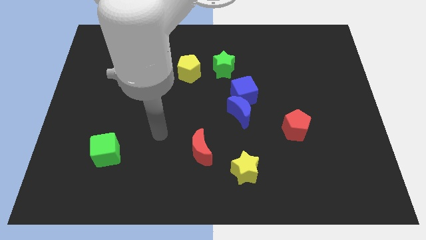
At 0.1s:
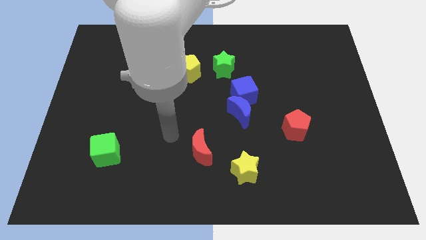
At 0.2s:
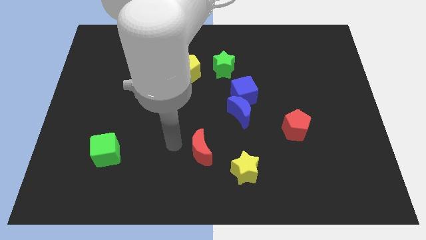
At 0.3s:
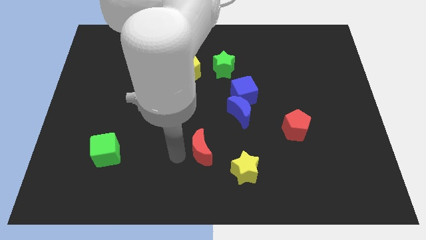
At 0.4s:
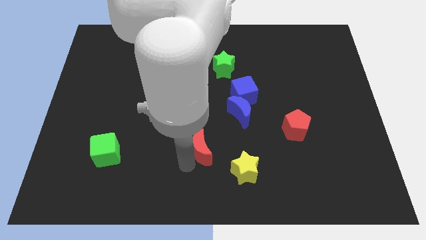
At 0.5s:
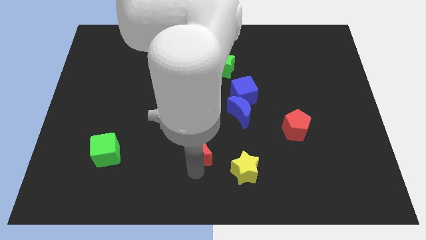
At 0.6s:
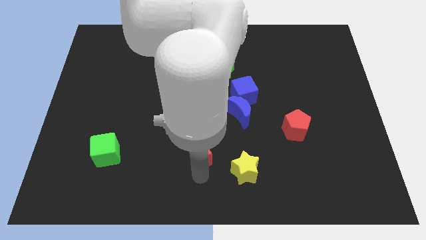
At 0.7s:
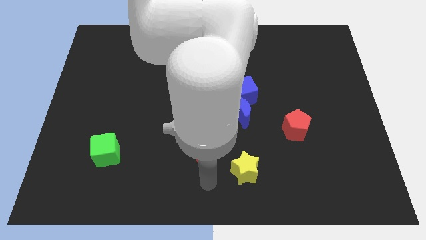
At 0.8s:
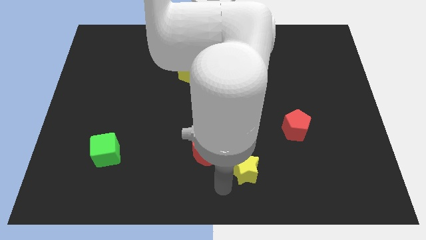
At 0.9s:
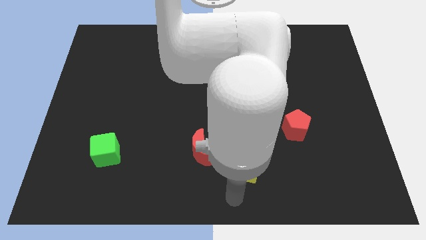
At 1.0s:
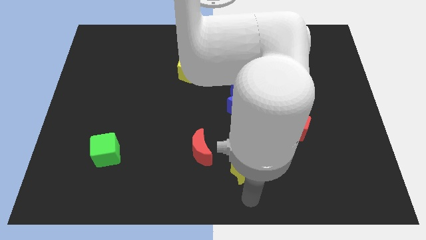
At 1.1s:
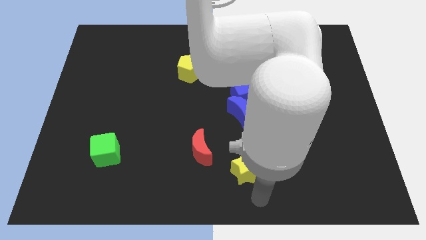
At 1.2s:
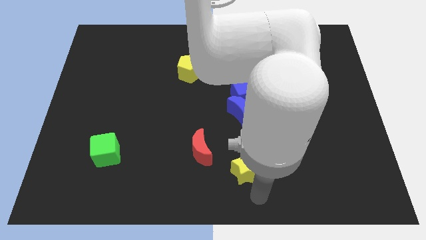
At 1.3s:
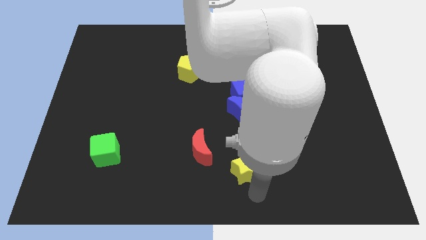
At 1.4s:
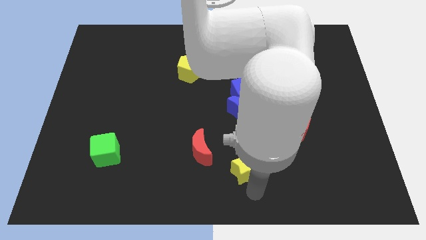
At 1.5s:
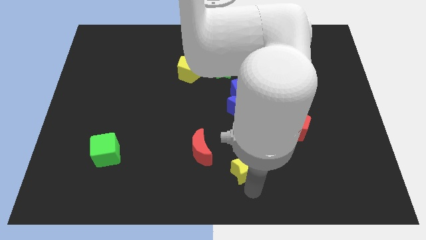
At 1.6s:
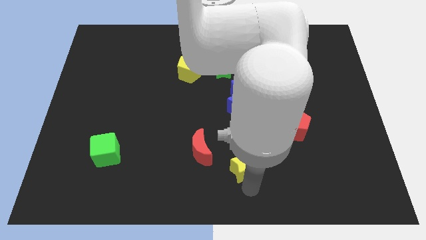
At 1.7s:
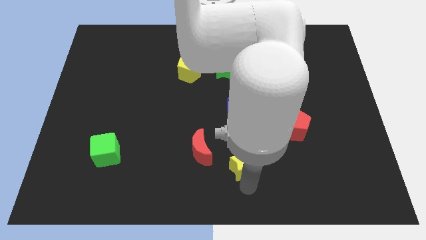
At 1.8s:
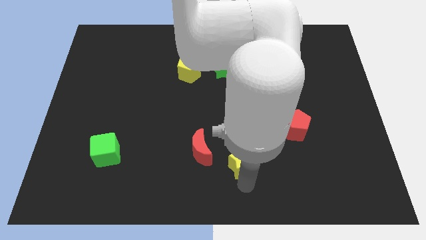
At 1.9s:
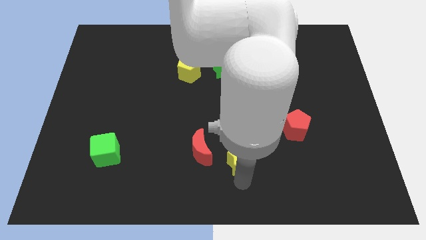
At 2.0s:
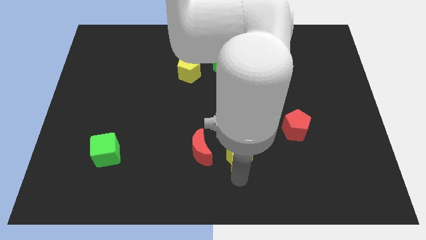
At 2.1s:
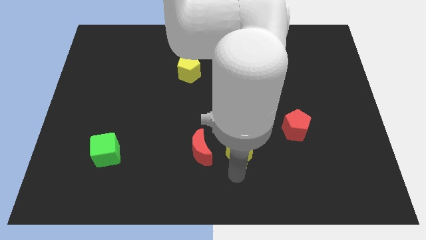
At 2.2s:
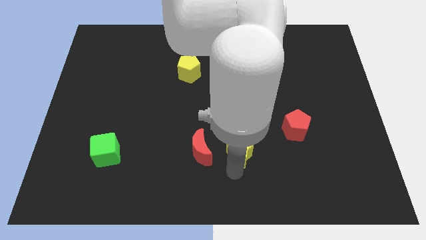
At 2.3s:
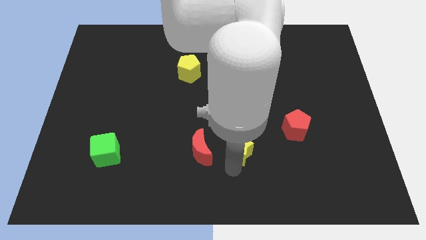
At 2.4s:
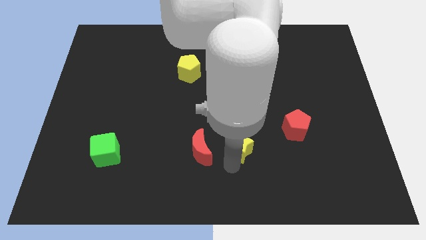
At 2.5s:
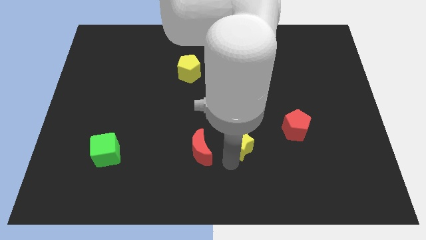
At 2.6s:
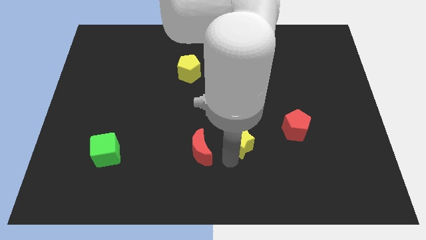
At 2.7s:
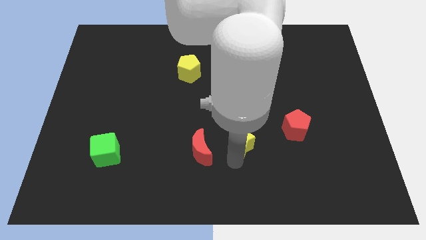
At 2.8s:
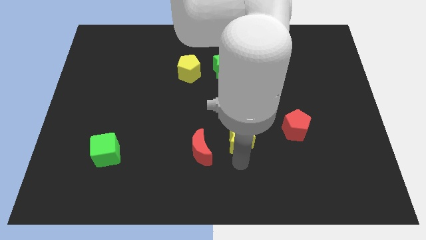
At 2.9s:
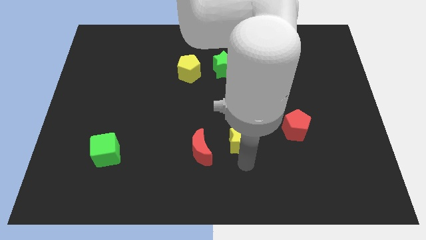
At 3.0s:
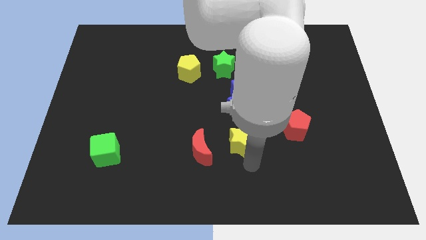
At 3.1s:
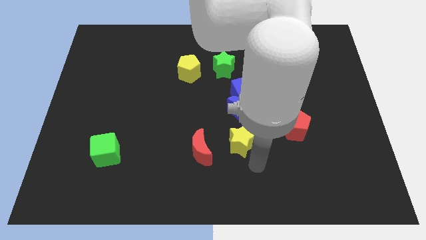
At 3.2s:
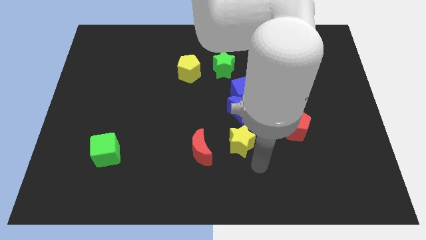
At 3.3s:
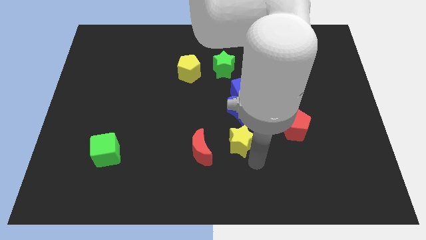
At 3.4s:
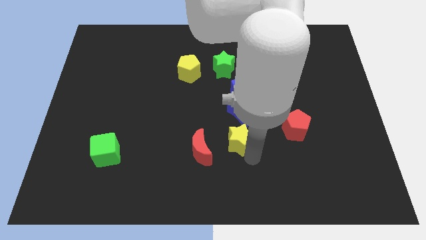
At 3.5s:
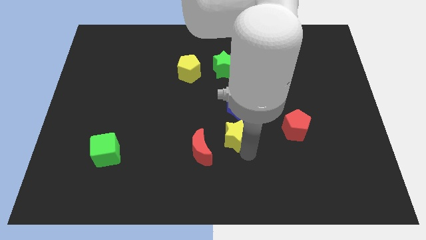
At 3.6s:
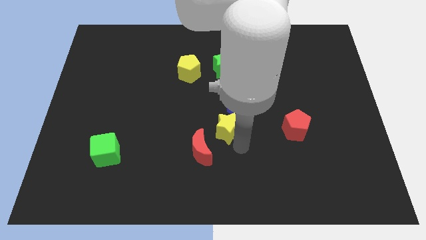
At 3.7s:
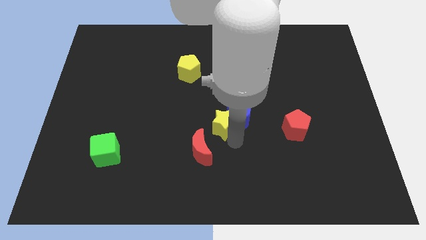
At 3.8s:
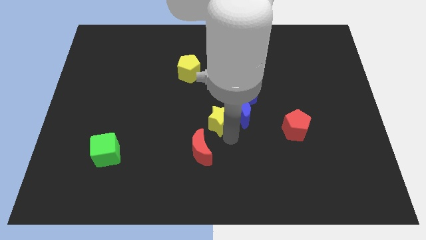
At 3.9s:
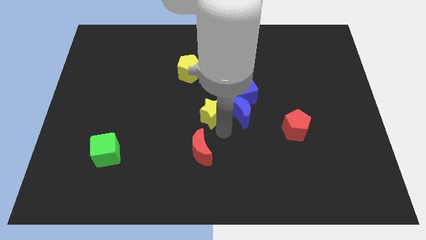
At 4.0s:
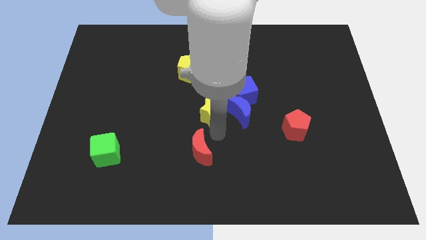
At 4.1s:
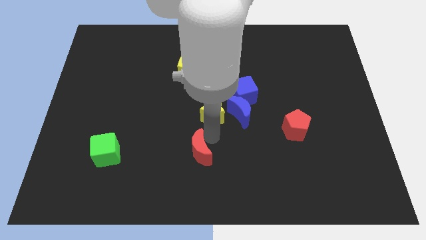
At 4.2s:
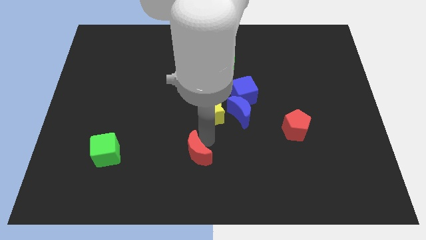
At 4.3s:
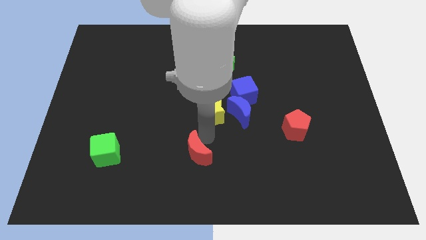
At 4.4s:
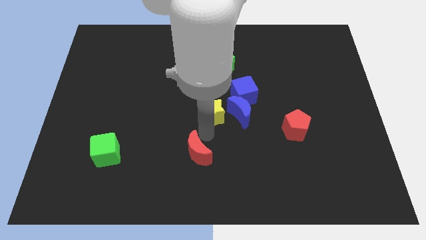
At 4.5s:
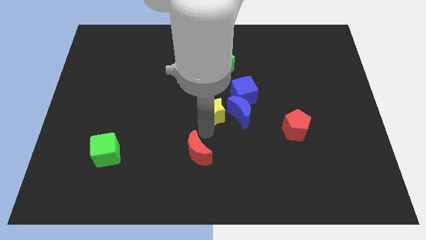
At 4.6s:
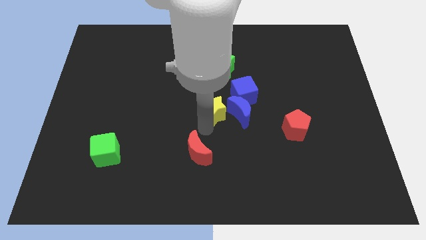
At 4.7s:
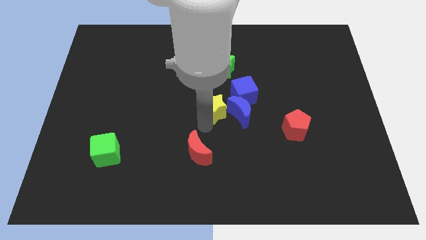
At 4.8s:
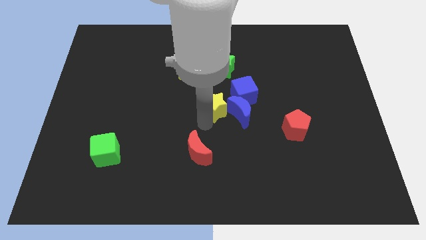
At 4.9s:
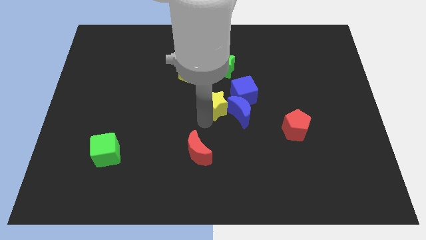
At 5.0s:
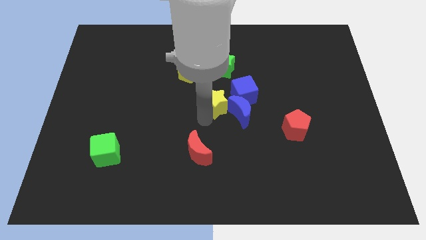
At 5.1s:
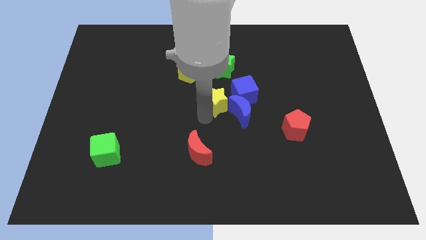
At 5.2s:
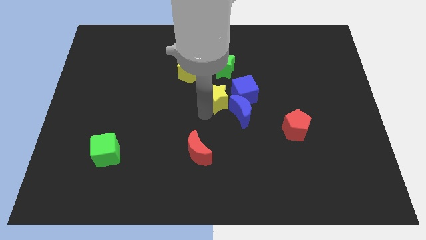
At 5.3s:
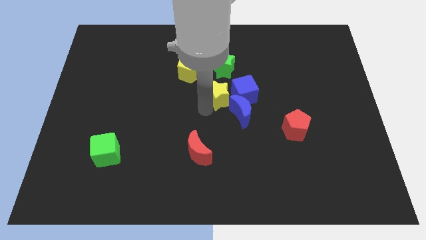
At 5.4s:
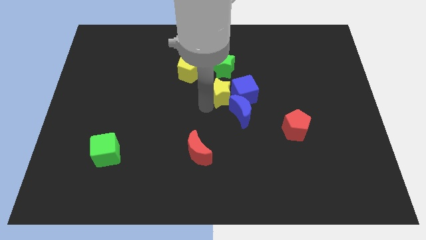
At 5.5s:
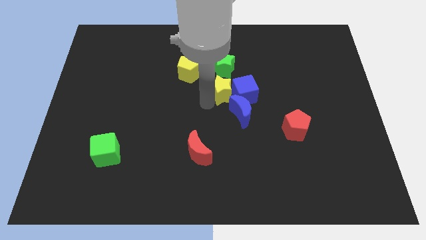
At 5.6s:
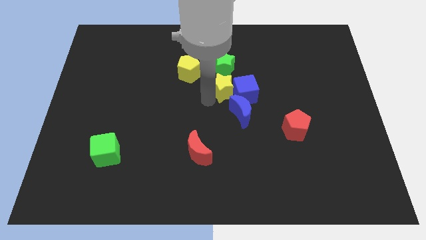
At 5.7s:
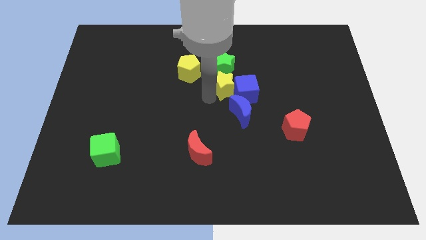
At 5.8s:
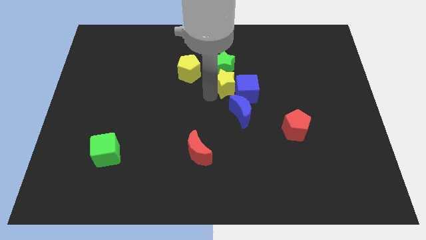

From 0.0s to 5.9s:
slide the yellow star towards the green star

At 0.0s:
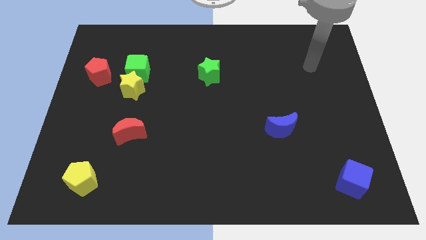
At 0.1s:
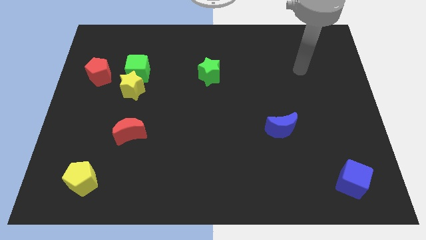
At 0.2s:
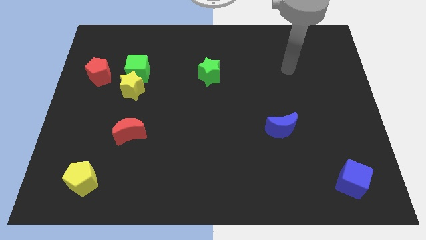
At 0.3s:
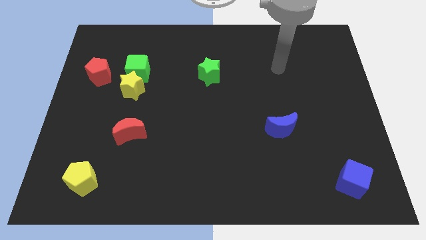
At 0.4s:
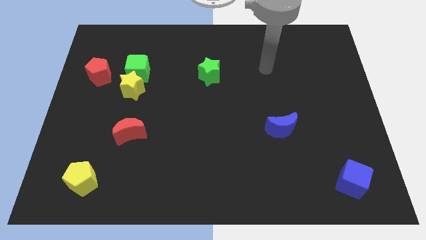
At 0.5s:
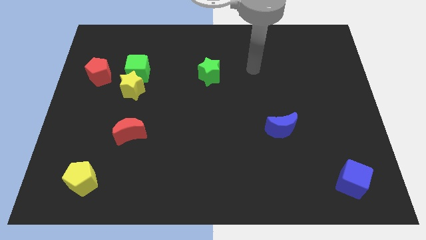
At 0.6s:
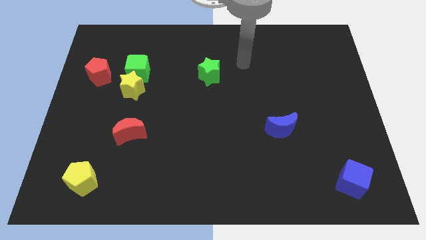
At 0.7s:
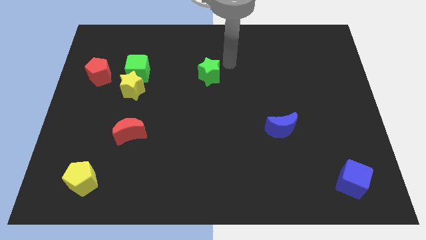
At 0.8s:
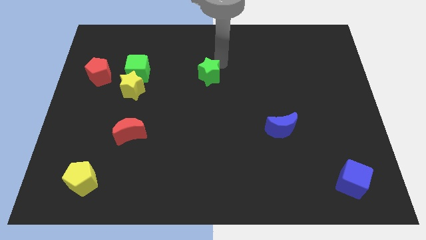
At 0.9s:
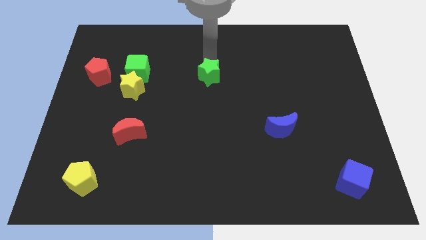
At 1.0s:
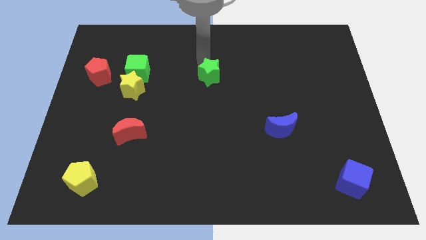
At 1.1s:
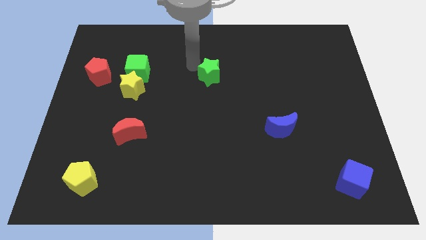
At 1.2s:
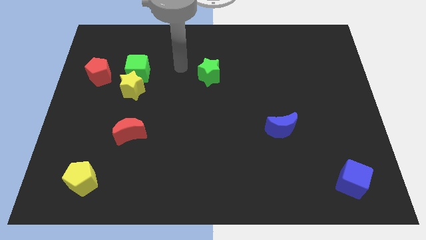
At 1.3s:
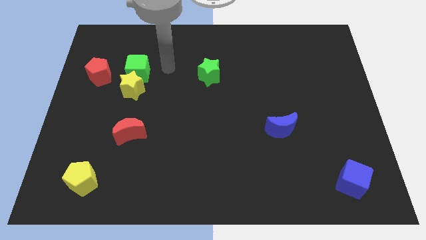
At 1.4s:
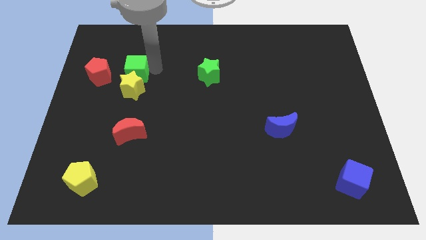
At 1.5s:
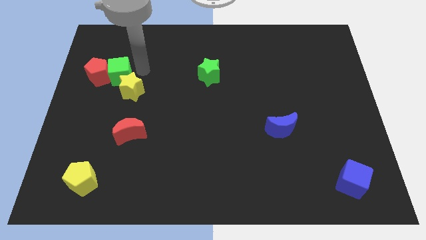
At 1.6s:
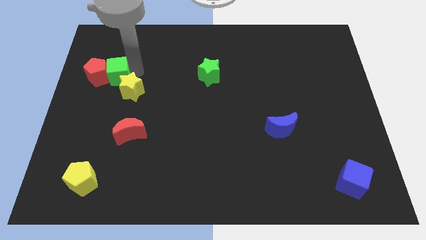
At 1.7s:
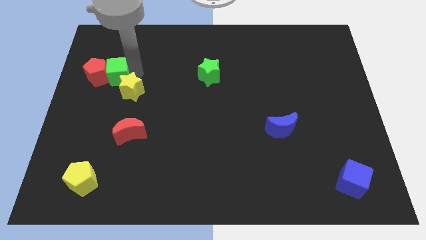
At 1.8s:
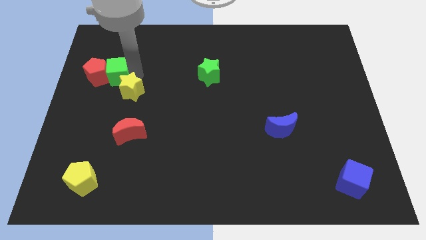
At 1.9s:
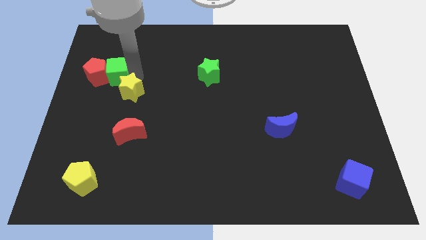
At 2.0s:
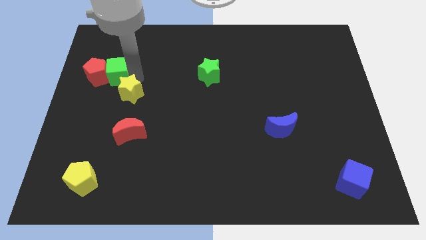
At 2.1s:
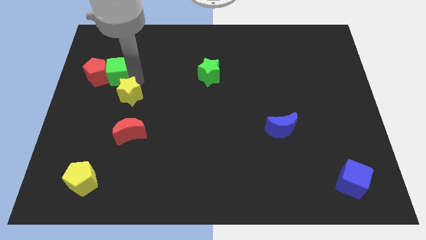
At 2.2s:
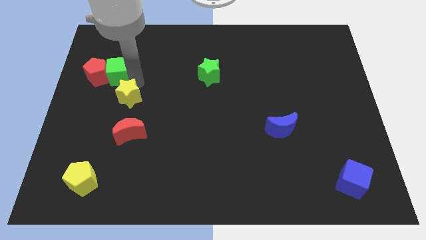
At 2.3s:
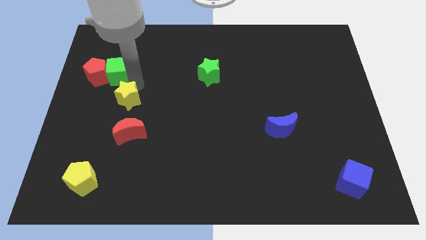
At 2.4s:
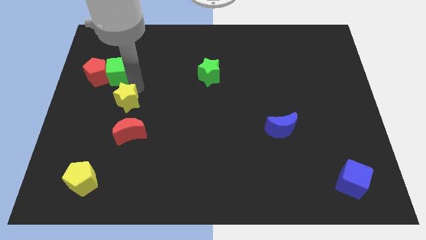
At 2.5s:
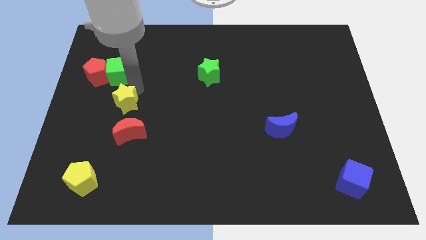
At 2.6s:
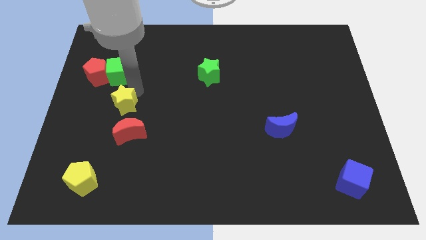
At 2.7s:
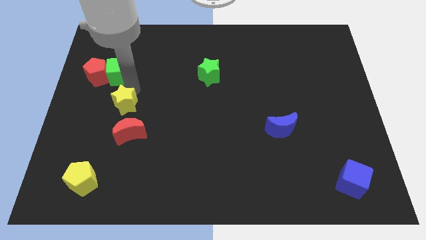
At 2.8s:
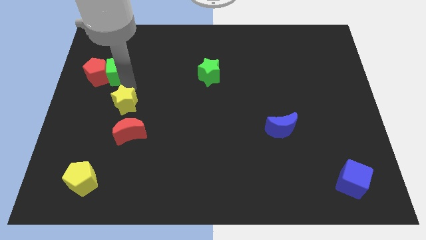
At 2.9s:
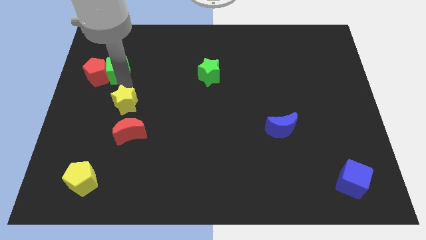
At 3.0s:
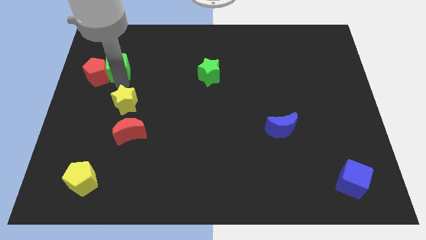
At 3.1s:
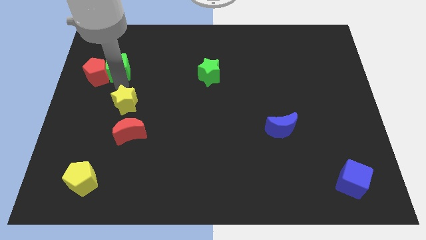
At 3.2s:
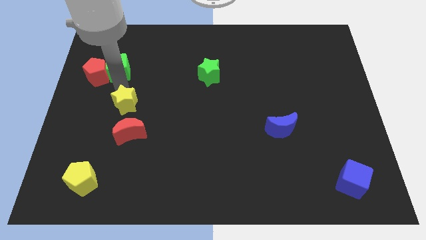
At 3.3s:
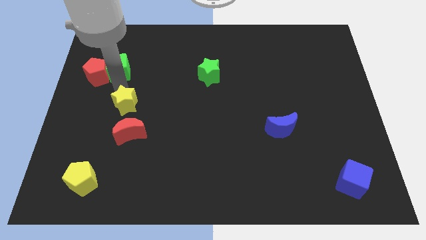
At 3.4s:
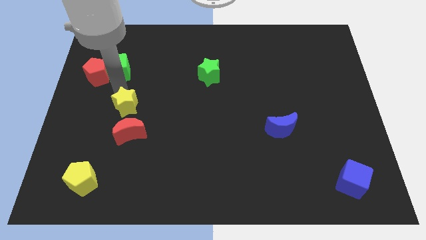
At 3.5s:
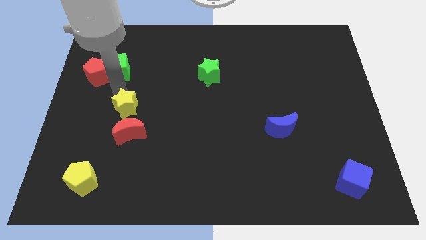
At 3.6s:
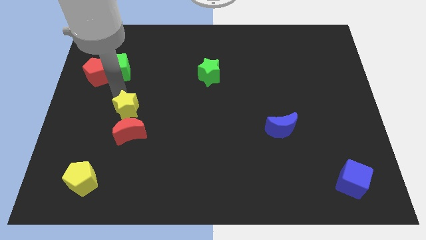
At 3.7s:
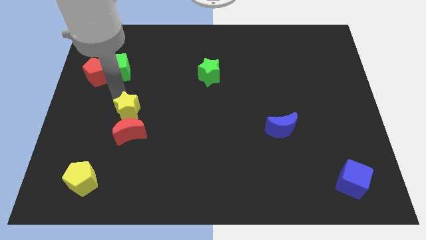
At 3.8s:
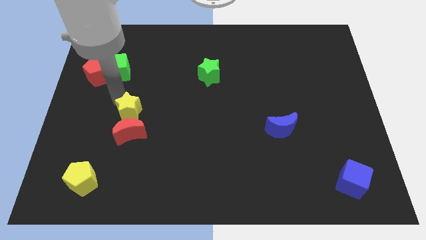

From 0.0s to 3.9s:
put the yellow star next to the red moon
